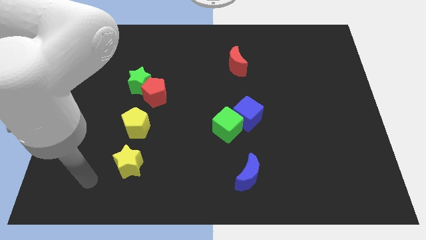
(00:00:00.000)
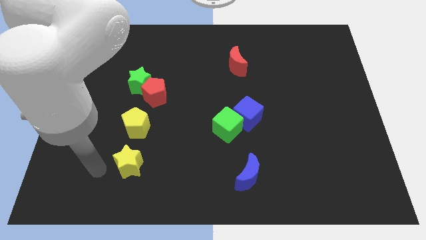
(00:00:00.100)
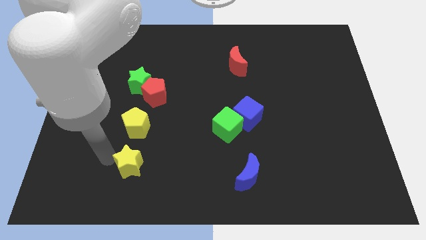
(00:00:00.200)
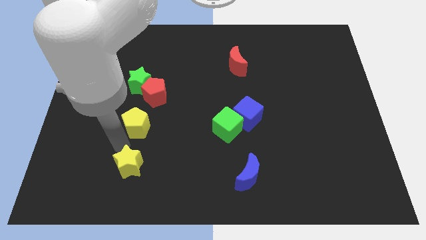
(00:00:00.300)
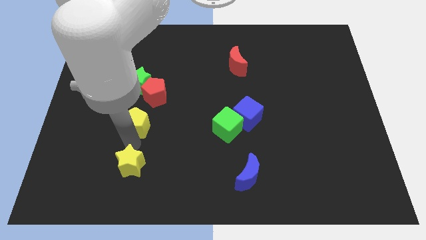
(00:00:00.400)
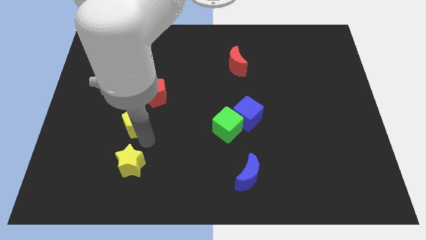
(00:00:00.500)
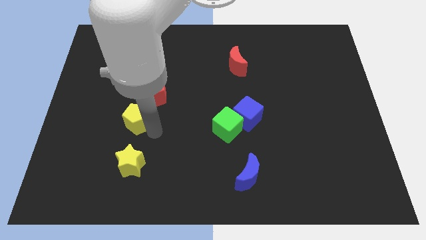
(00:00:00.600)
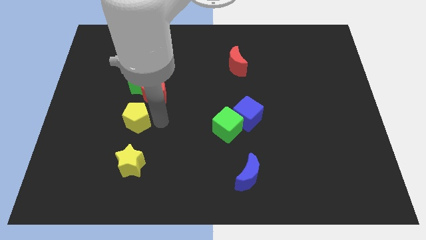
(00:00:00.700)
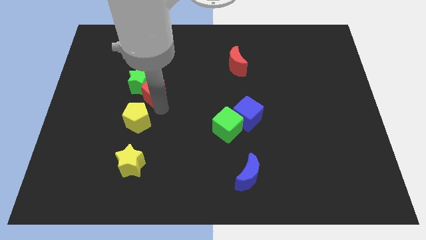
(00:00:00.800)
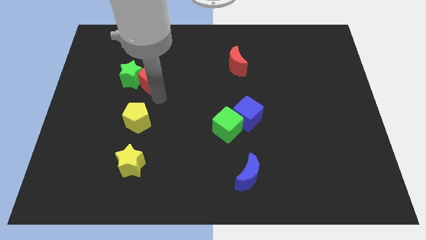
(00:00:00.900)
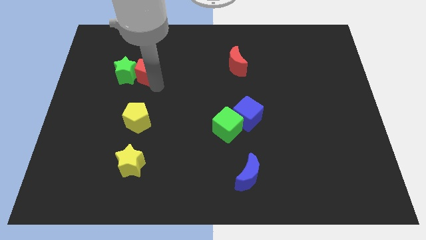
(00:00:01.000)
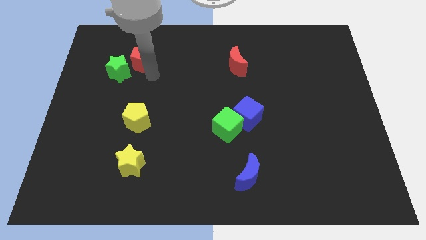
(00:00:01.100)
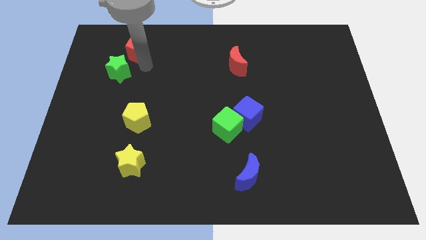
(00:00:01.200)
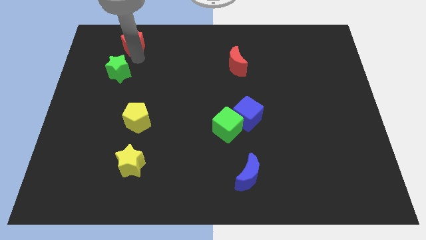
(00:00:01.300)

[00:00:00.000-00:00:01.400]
pull the green star apart from the red pentagon

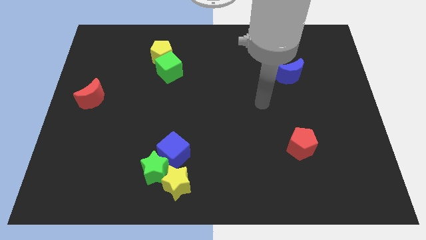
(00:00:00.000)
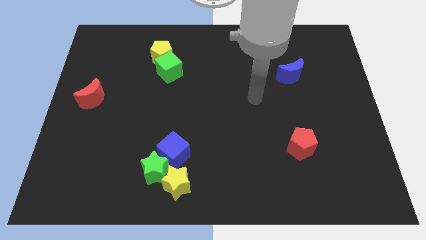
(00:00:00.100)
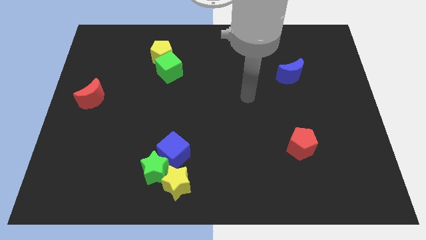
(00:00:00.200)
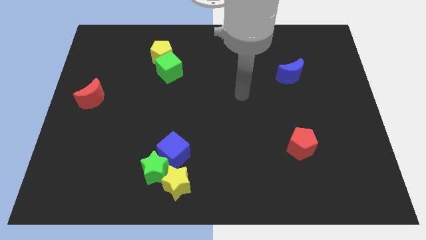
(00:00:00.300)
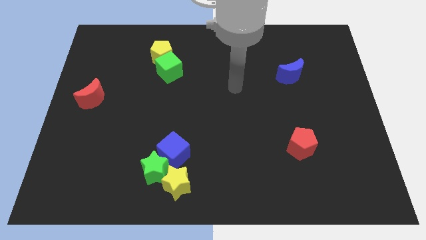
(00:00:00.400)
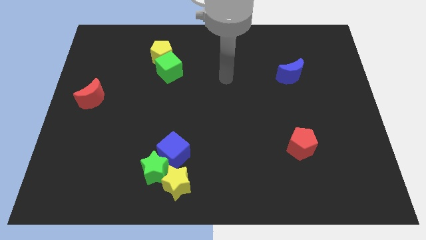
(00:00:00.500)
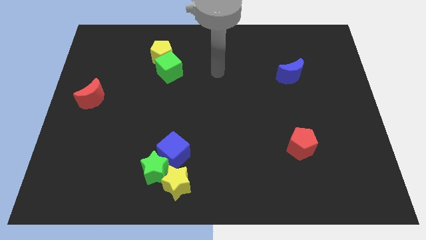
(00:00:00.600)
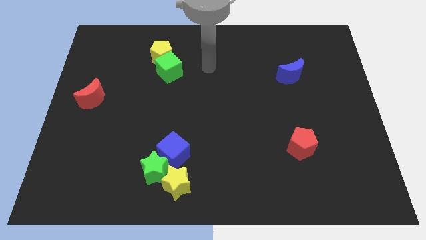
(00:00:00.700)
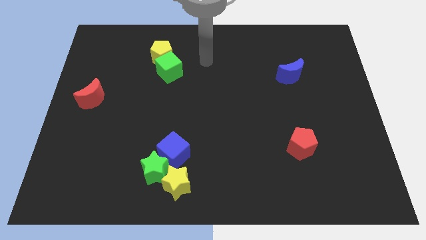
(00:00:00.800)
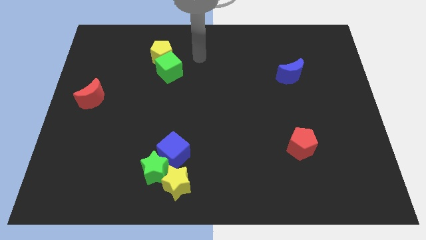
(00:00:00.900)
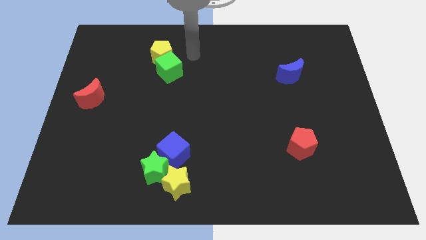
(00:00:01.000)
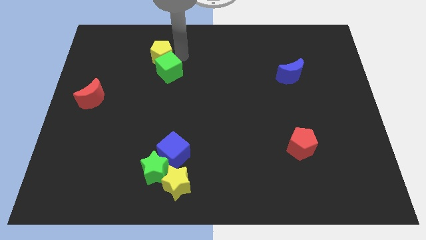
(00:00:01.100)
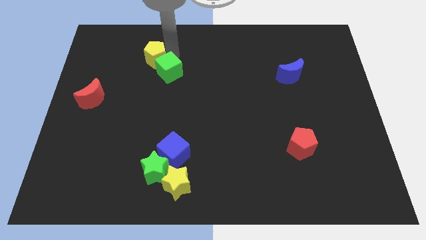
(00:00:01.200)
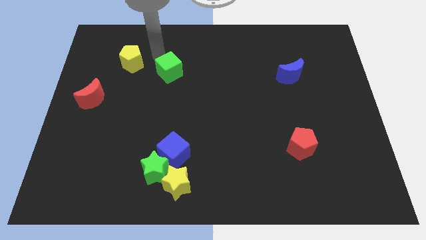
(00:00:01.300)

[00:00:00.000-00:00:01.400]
pull the green cube apart from the yellow pentagon

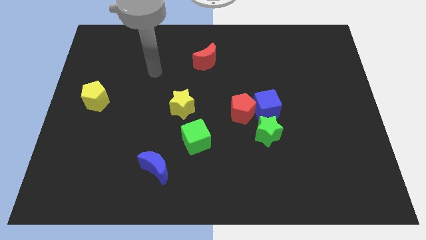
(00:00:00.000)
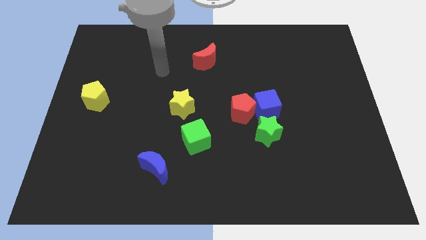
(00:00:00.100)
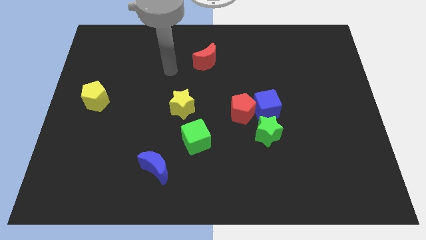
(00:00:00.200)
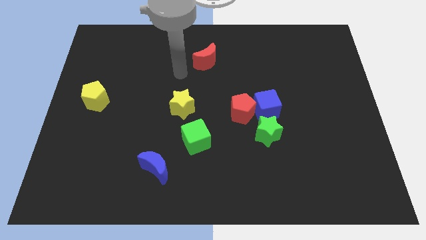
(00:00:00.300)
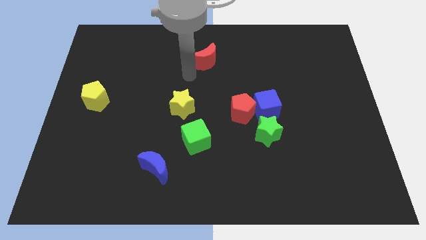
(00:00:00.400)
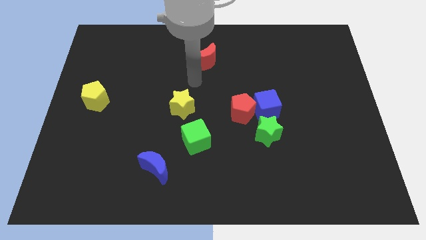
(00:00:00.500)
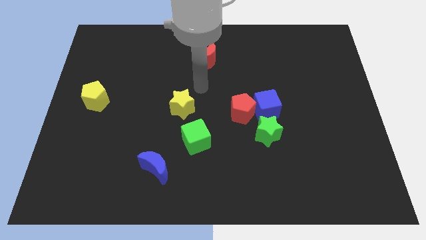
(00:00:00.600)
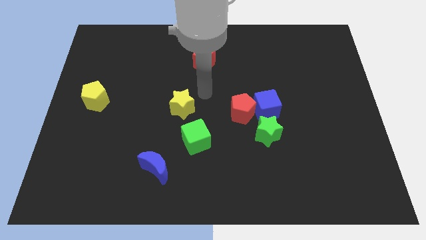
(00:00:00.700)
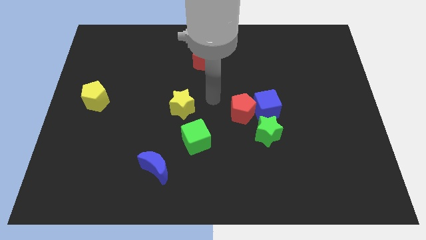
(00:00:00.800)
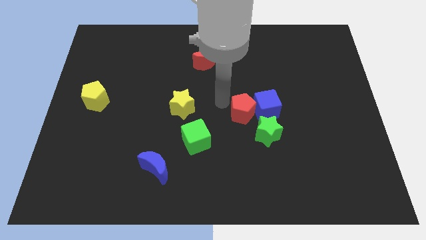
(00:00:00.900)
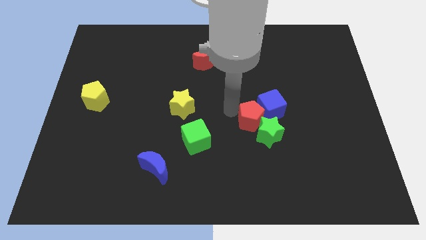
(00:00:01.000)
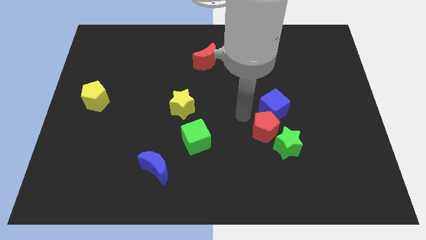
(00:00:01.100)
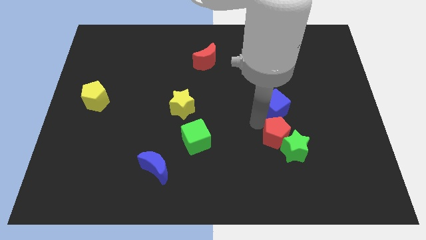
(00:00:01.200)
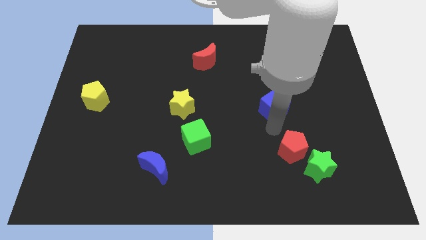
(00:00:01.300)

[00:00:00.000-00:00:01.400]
pull the blue cube apart from the red pentagon and green star

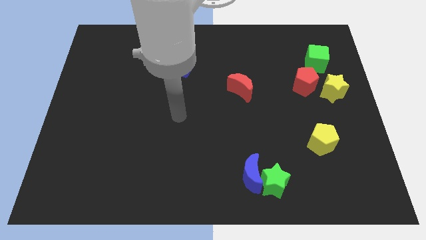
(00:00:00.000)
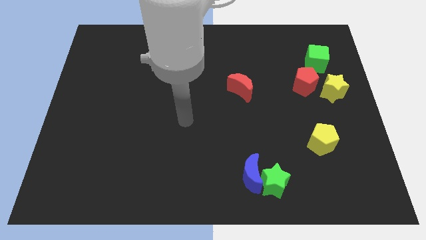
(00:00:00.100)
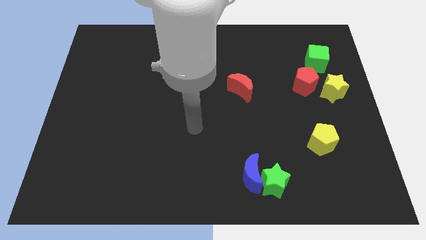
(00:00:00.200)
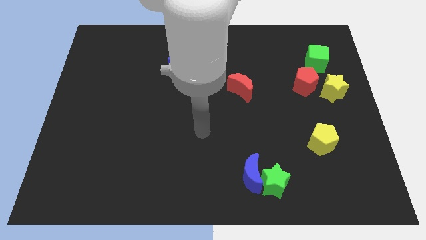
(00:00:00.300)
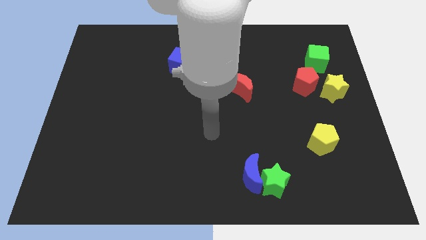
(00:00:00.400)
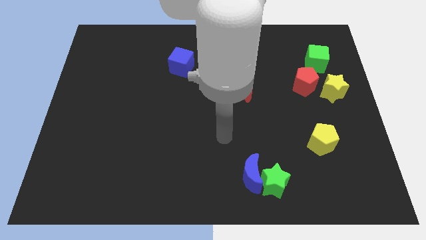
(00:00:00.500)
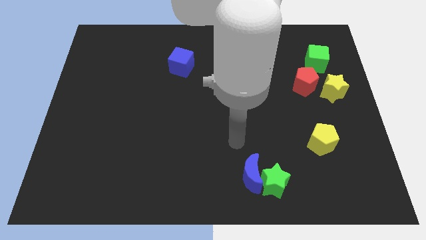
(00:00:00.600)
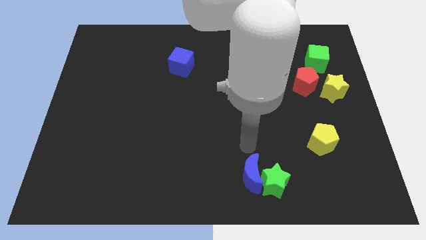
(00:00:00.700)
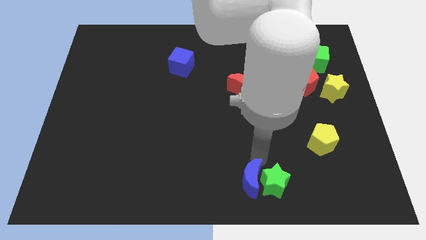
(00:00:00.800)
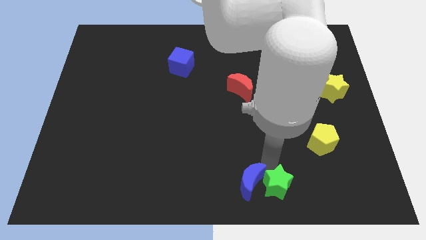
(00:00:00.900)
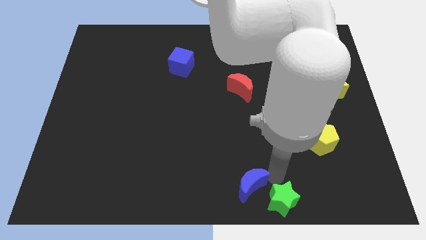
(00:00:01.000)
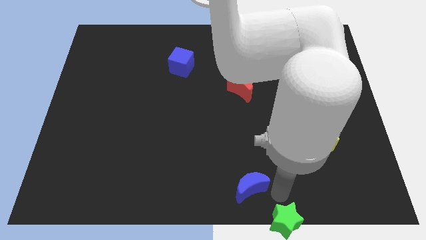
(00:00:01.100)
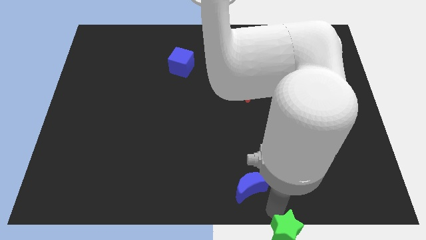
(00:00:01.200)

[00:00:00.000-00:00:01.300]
move the blue moon away from the green star

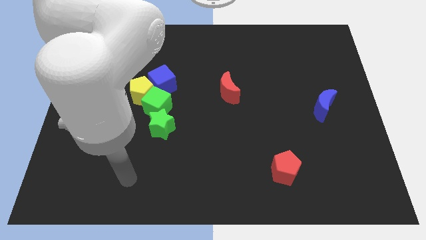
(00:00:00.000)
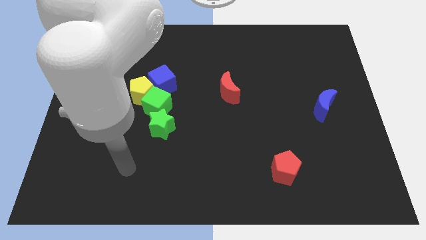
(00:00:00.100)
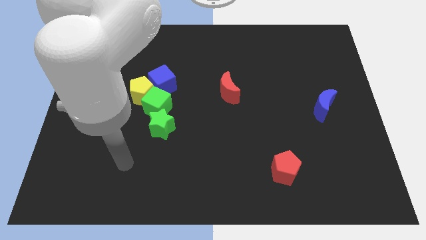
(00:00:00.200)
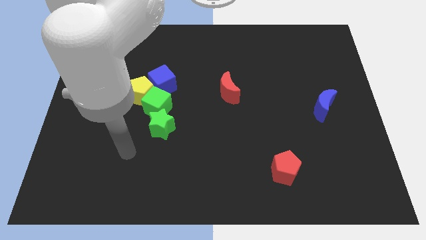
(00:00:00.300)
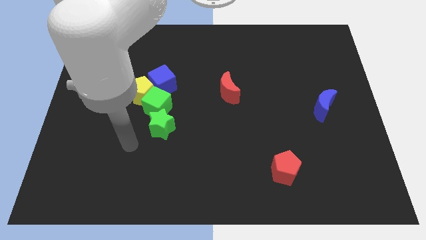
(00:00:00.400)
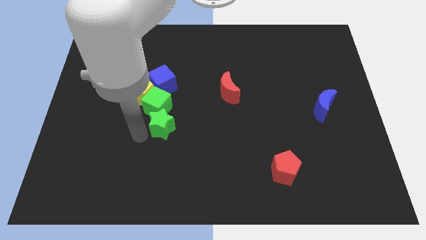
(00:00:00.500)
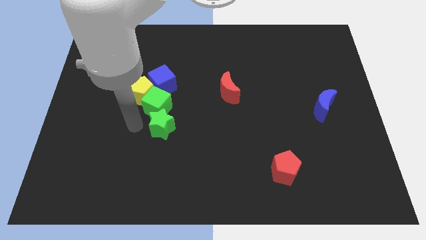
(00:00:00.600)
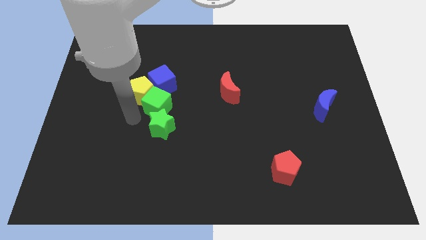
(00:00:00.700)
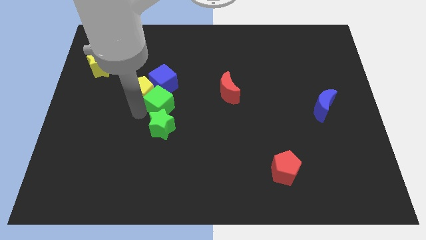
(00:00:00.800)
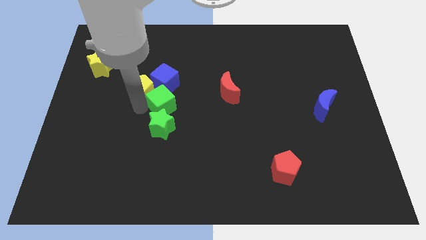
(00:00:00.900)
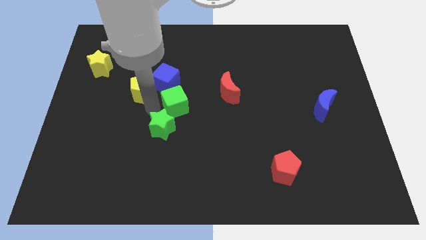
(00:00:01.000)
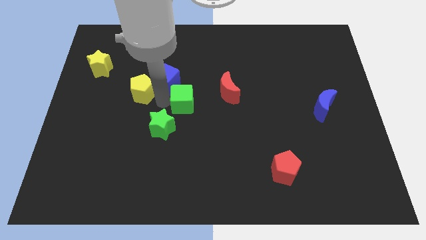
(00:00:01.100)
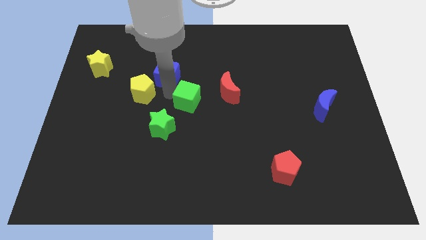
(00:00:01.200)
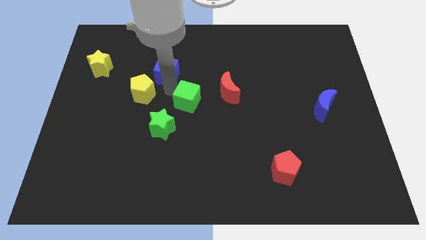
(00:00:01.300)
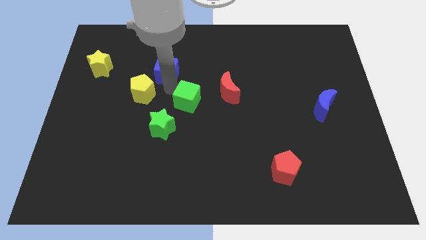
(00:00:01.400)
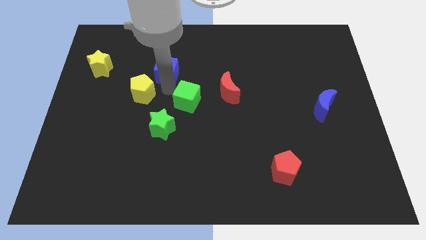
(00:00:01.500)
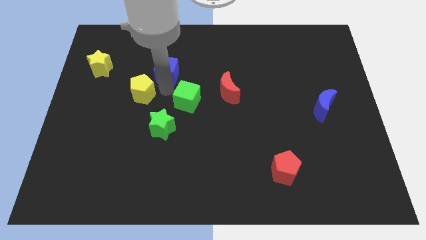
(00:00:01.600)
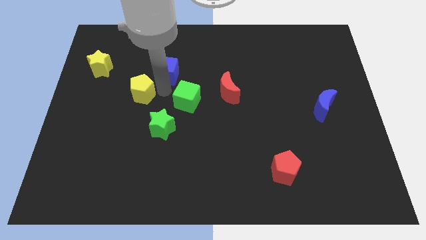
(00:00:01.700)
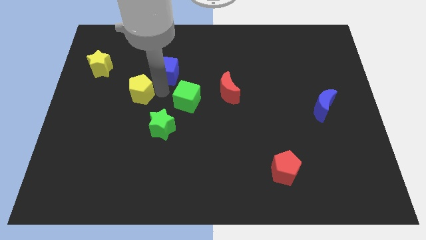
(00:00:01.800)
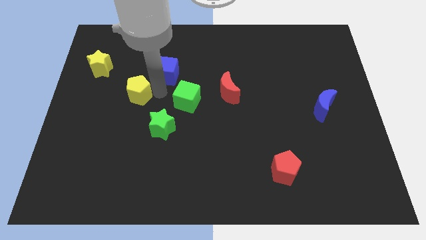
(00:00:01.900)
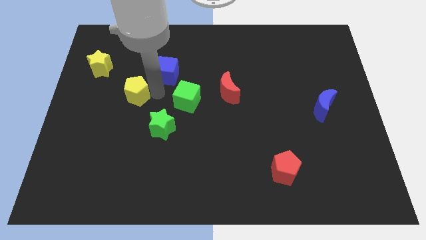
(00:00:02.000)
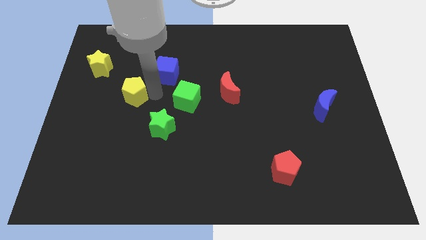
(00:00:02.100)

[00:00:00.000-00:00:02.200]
pull the yellow pentagon apart from the green cube and blue cube

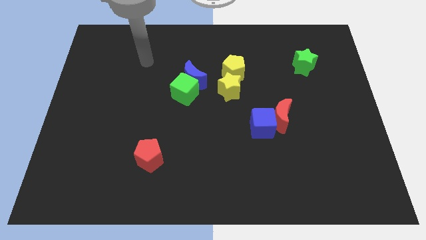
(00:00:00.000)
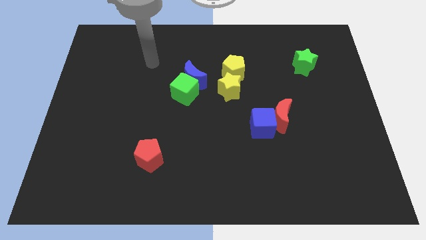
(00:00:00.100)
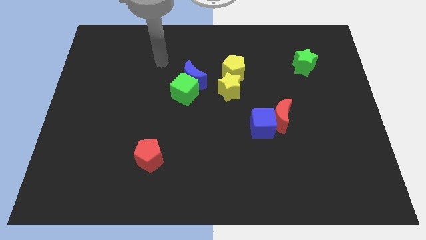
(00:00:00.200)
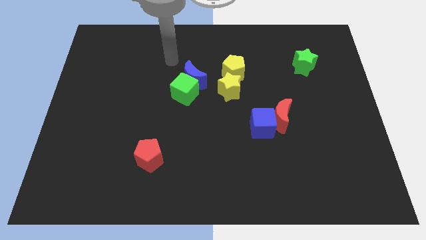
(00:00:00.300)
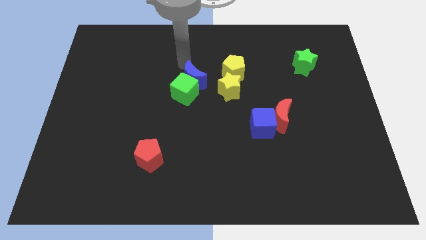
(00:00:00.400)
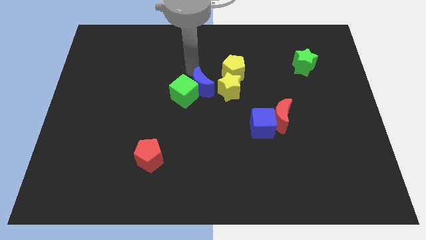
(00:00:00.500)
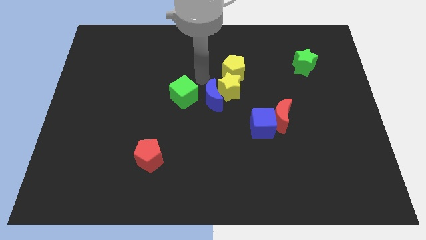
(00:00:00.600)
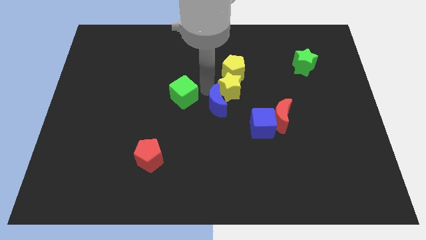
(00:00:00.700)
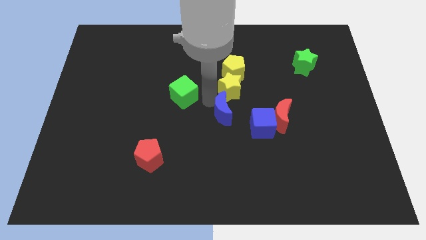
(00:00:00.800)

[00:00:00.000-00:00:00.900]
move the green cube away from the blue moon

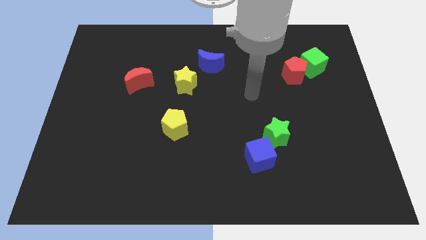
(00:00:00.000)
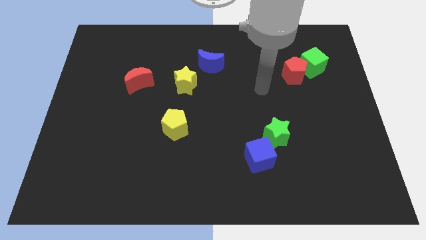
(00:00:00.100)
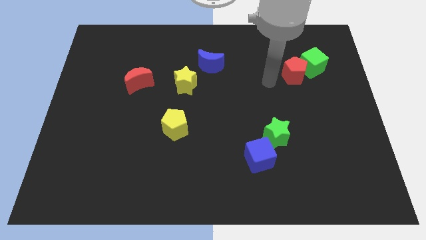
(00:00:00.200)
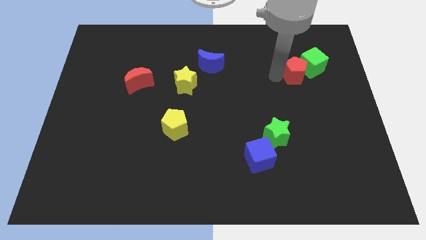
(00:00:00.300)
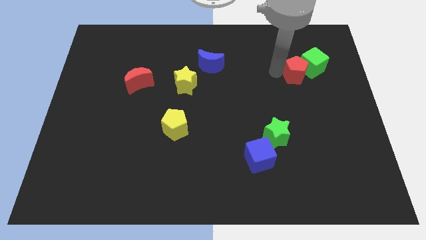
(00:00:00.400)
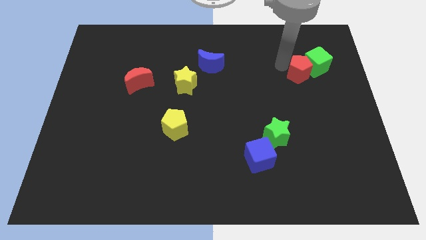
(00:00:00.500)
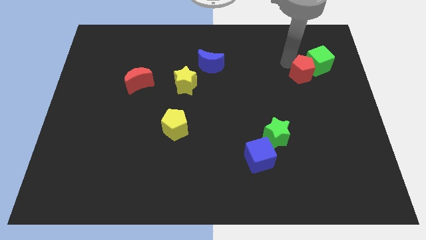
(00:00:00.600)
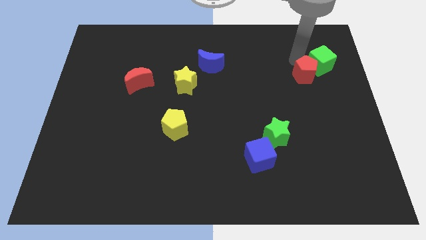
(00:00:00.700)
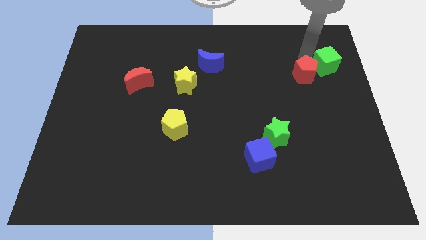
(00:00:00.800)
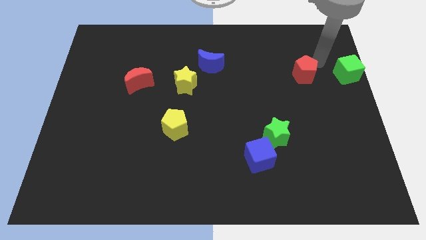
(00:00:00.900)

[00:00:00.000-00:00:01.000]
move the red pentagon away from the green cube
